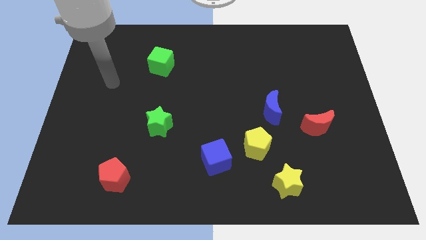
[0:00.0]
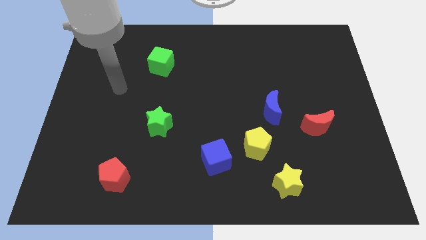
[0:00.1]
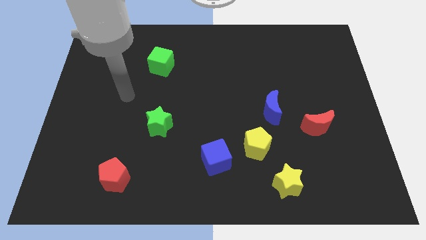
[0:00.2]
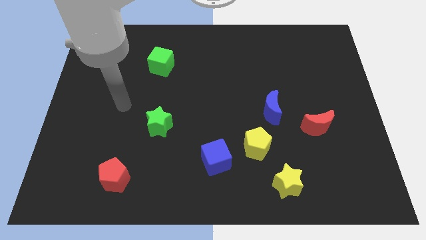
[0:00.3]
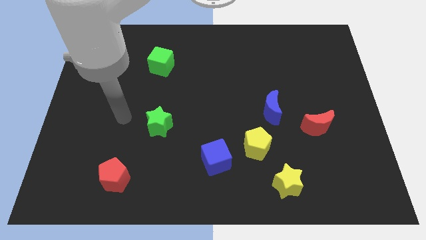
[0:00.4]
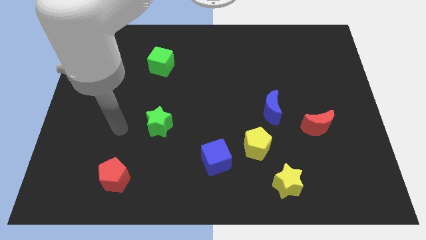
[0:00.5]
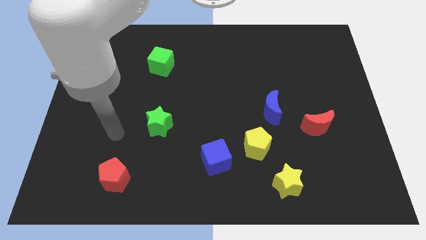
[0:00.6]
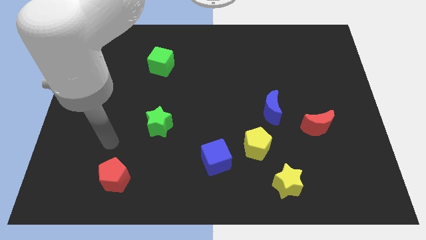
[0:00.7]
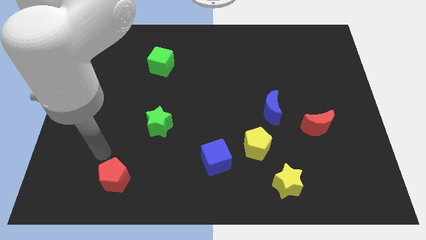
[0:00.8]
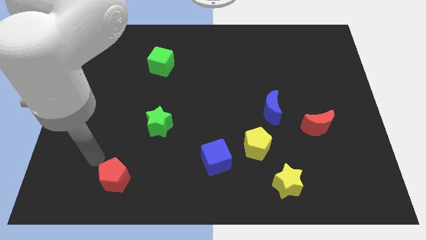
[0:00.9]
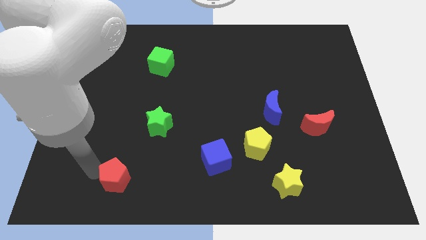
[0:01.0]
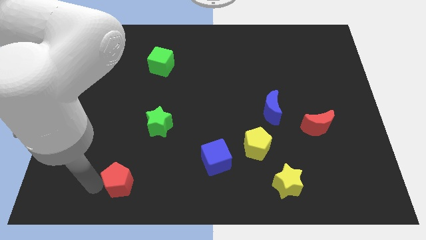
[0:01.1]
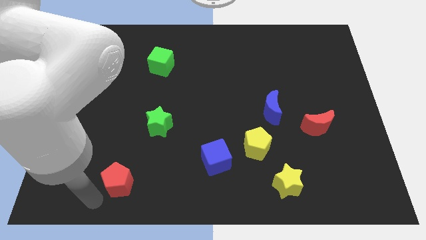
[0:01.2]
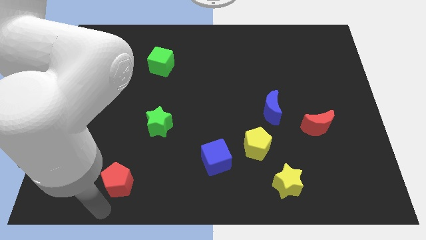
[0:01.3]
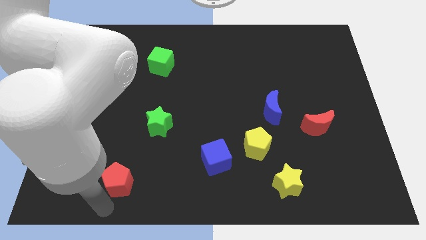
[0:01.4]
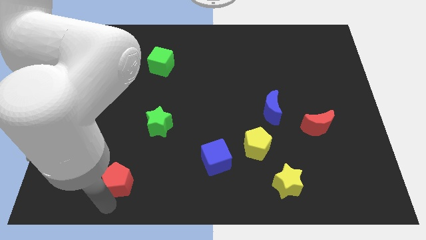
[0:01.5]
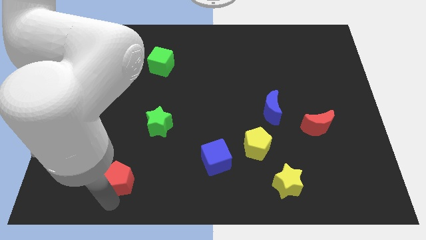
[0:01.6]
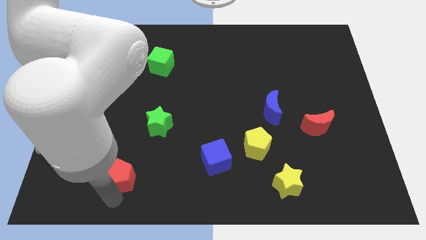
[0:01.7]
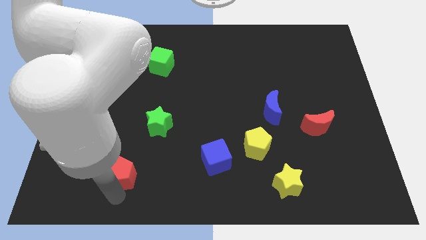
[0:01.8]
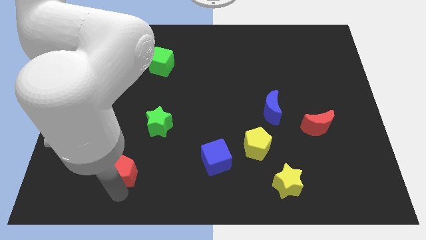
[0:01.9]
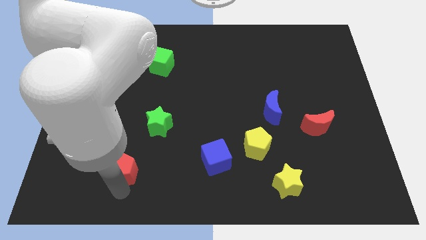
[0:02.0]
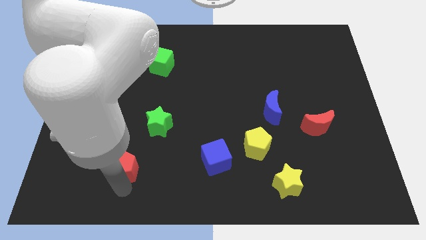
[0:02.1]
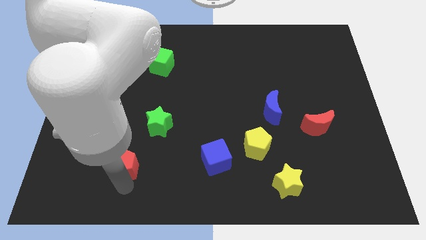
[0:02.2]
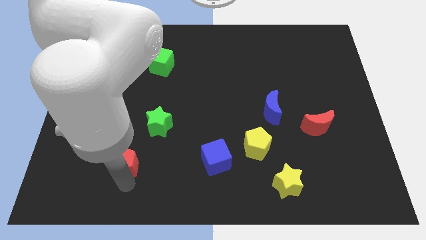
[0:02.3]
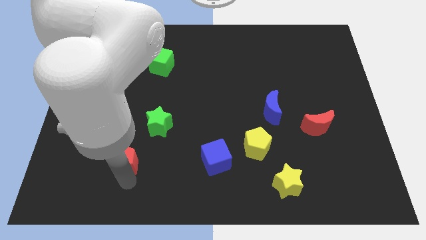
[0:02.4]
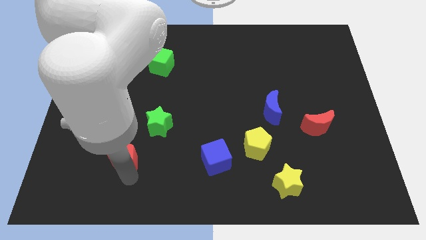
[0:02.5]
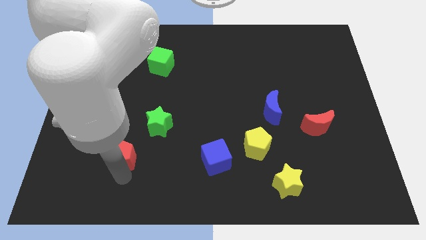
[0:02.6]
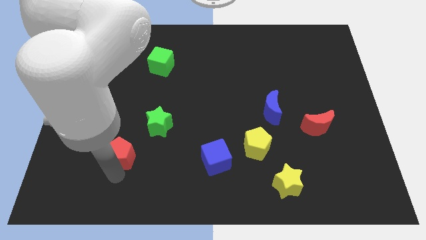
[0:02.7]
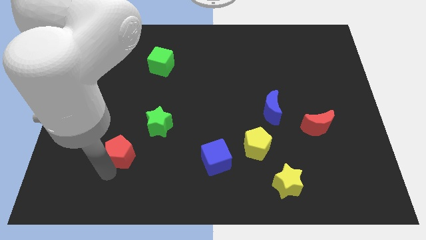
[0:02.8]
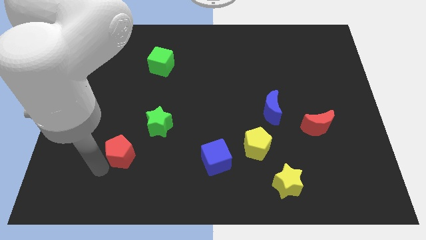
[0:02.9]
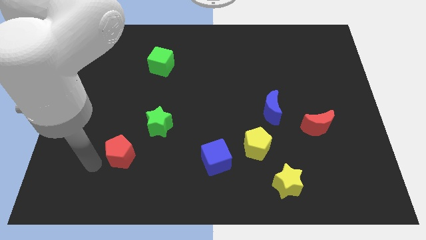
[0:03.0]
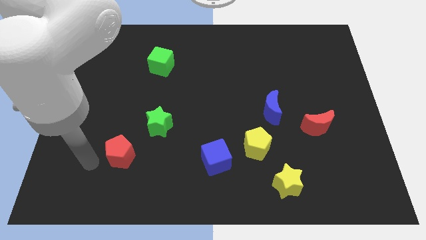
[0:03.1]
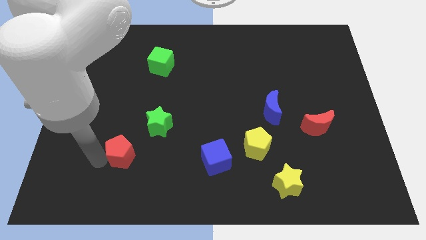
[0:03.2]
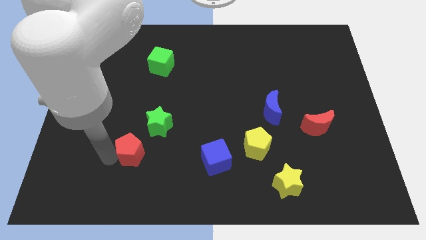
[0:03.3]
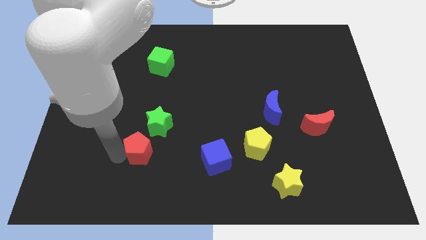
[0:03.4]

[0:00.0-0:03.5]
slide the red pentagon upwards and then to the right a bit

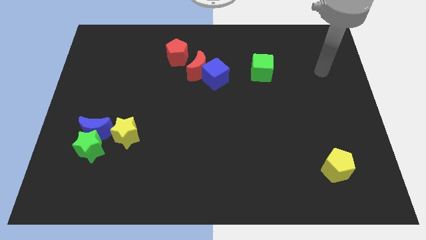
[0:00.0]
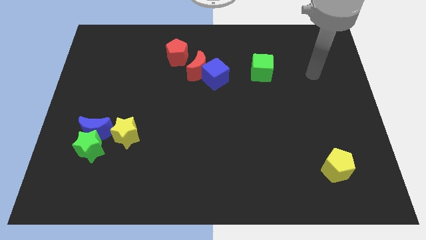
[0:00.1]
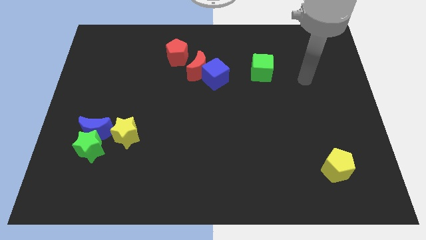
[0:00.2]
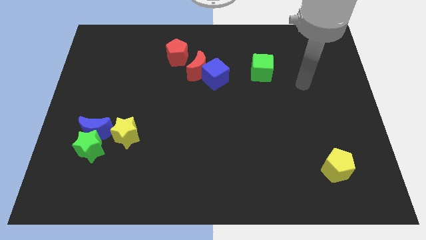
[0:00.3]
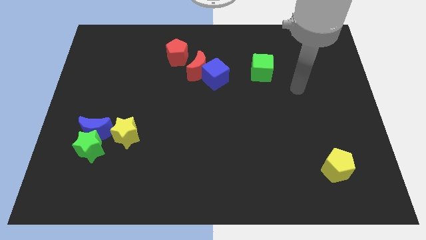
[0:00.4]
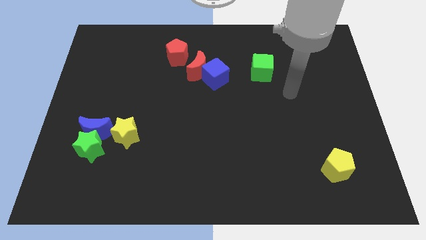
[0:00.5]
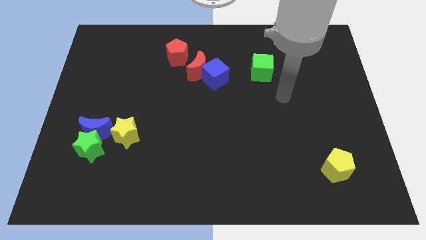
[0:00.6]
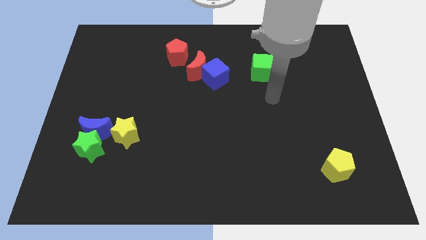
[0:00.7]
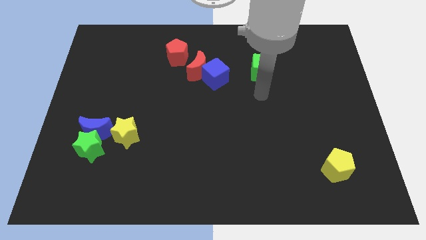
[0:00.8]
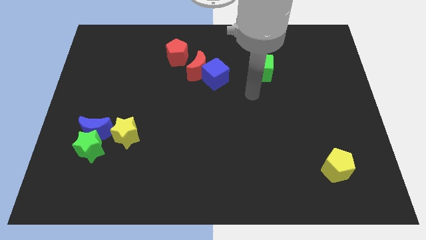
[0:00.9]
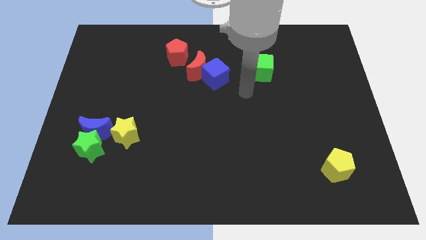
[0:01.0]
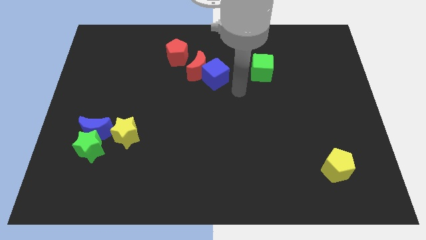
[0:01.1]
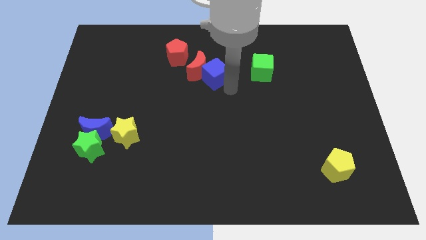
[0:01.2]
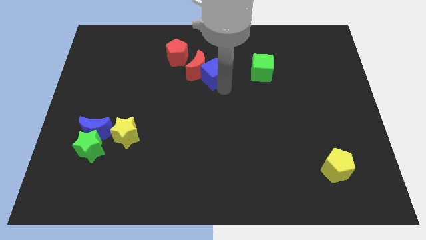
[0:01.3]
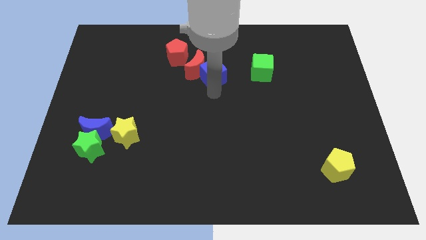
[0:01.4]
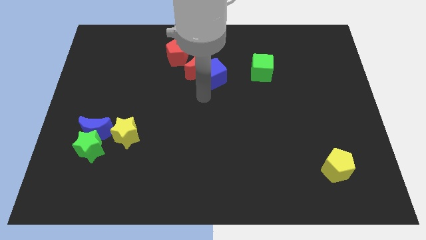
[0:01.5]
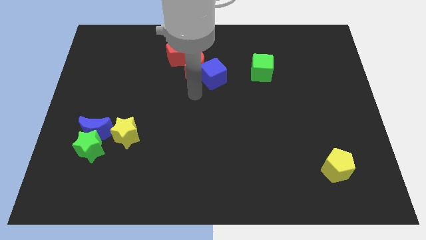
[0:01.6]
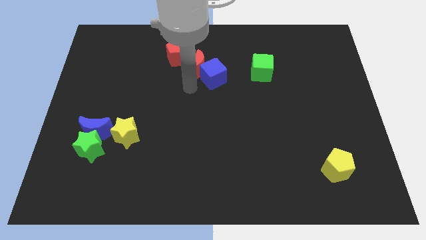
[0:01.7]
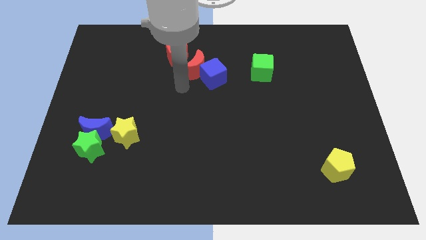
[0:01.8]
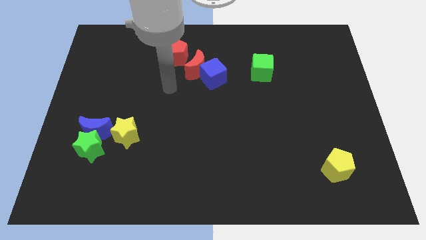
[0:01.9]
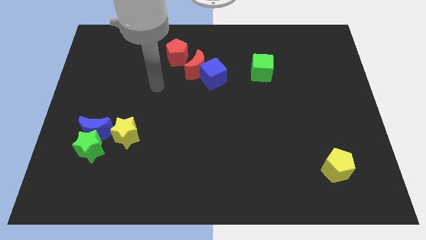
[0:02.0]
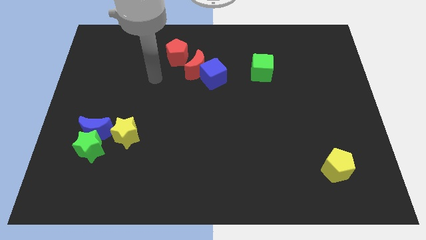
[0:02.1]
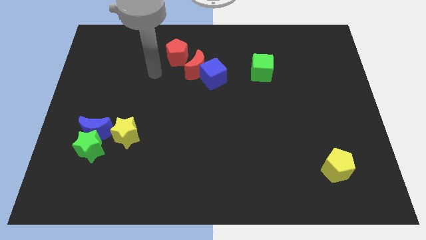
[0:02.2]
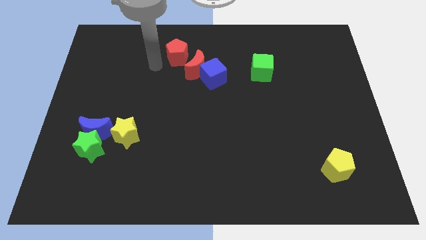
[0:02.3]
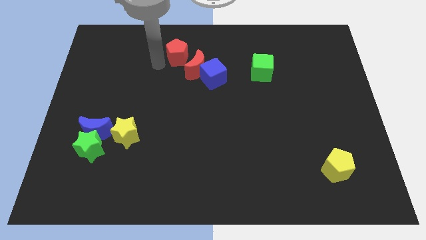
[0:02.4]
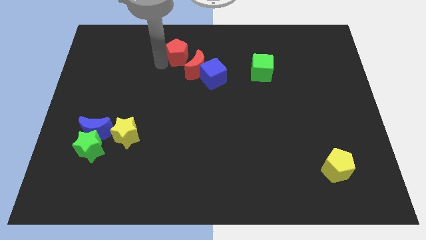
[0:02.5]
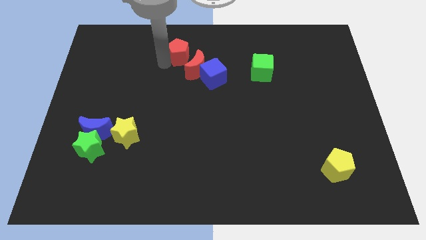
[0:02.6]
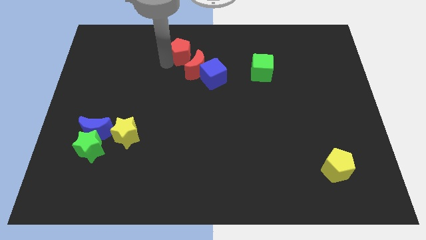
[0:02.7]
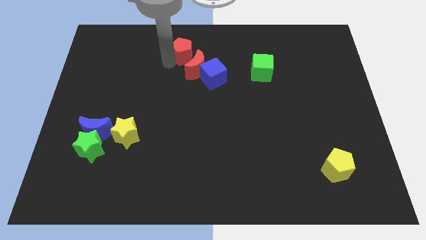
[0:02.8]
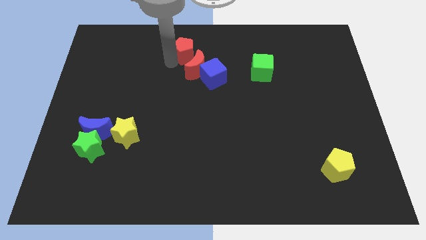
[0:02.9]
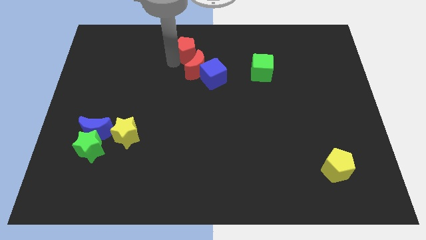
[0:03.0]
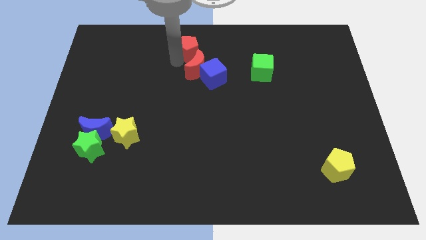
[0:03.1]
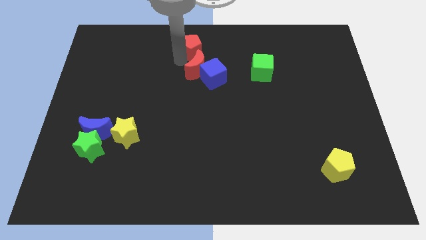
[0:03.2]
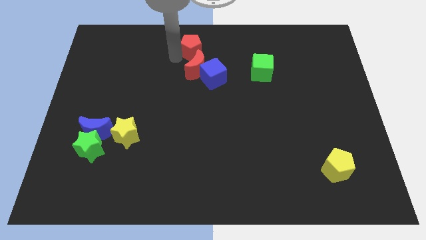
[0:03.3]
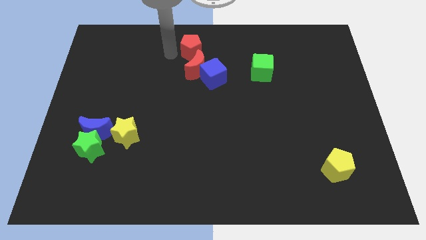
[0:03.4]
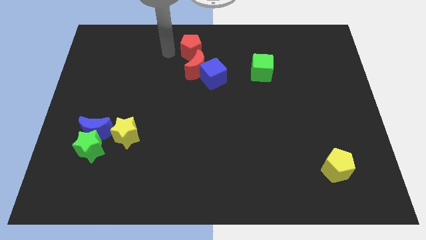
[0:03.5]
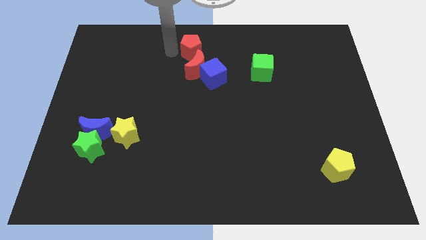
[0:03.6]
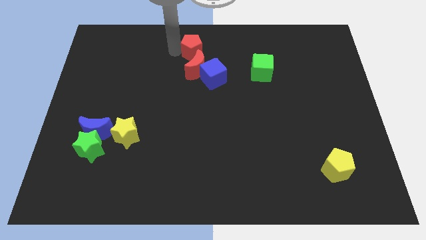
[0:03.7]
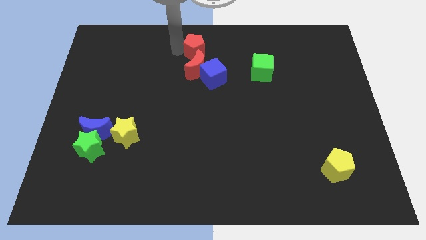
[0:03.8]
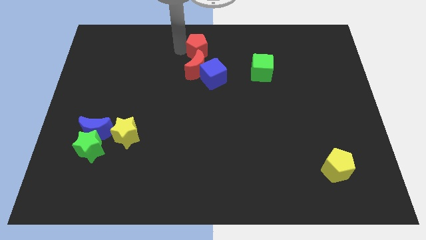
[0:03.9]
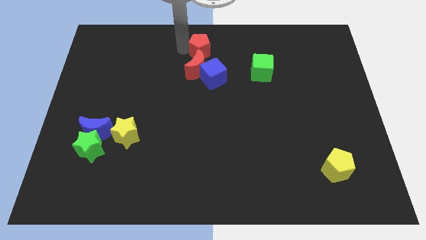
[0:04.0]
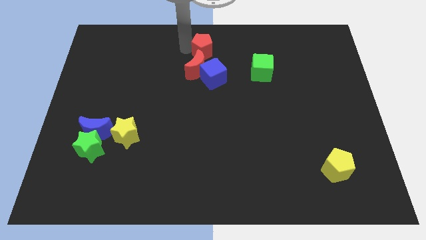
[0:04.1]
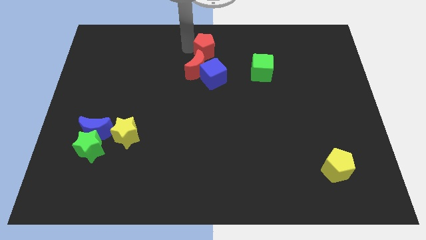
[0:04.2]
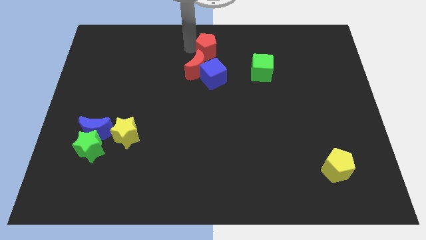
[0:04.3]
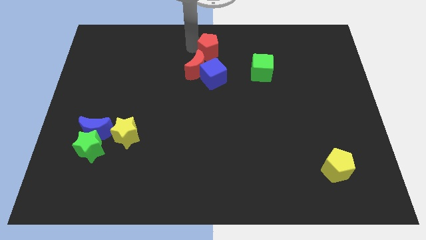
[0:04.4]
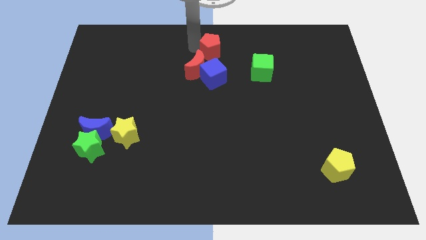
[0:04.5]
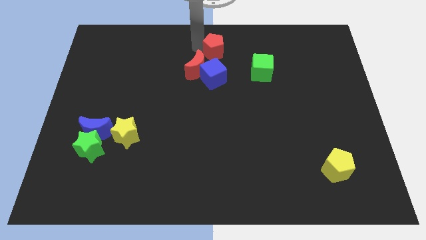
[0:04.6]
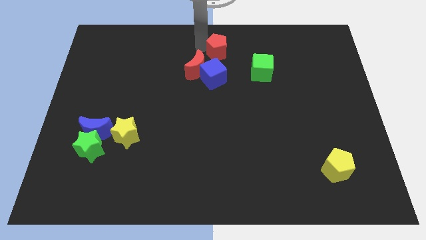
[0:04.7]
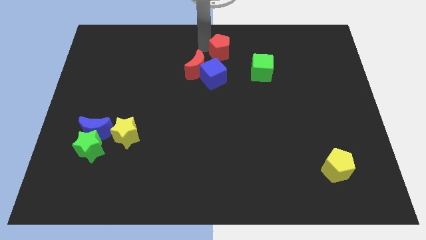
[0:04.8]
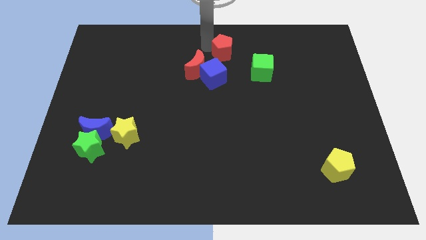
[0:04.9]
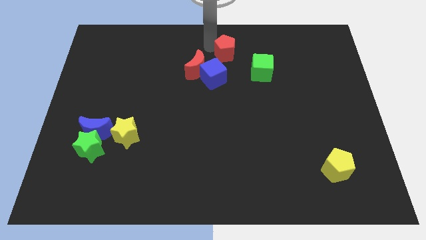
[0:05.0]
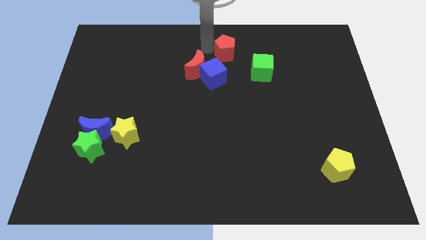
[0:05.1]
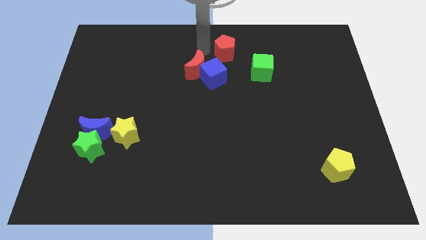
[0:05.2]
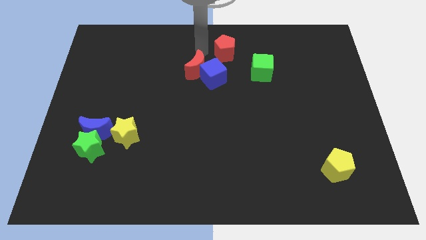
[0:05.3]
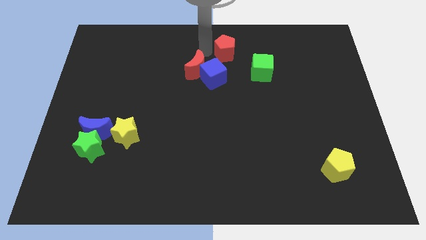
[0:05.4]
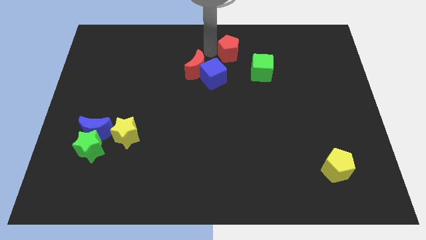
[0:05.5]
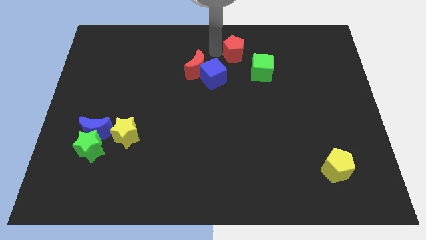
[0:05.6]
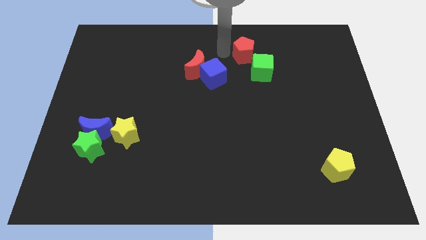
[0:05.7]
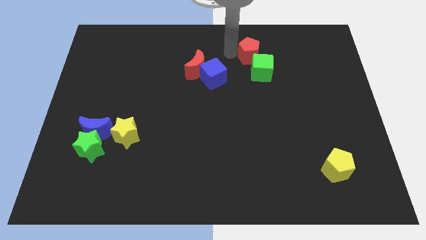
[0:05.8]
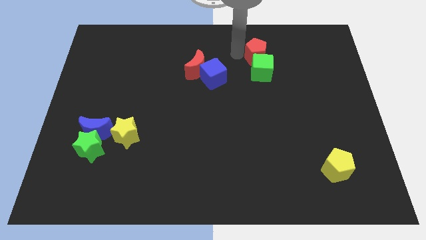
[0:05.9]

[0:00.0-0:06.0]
slide the red pentagon to the right
